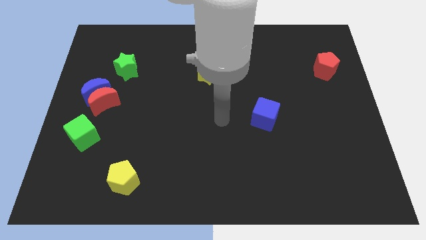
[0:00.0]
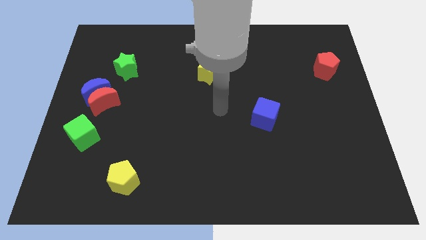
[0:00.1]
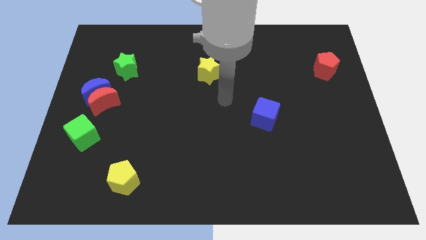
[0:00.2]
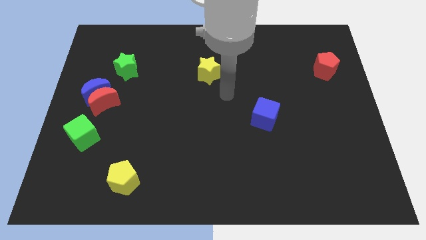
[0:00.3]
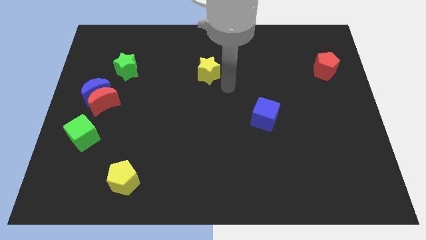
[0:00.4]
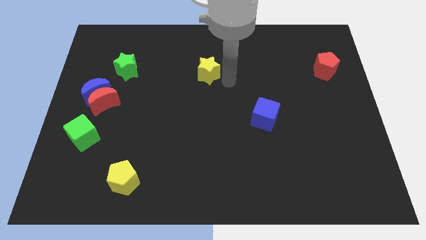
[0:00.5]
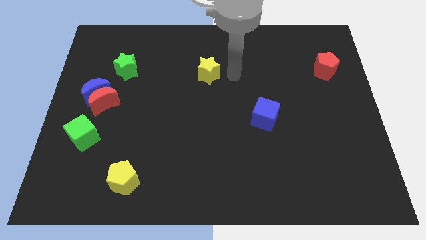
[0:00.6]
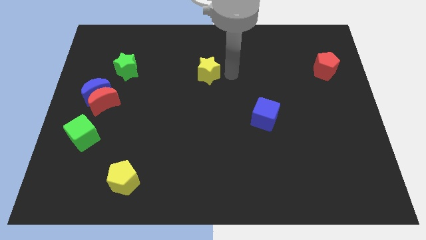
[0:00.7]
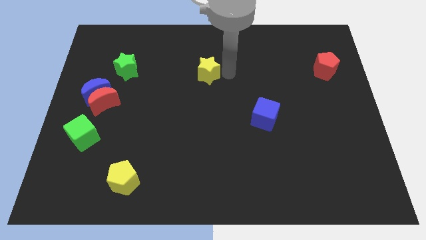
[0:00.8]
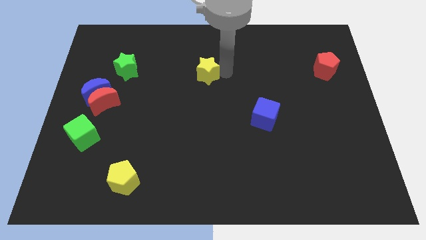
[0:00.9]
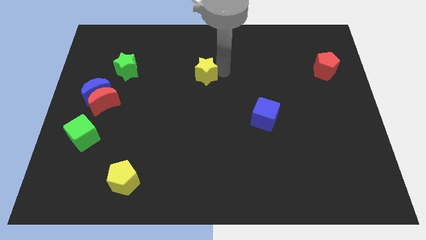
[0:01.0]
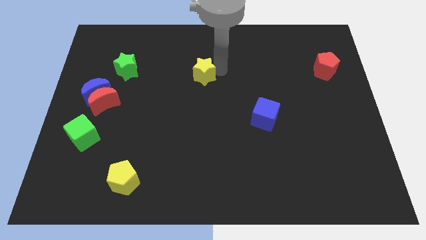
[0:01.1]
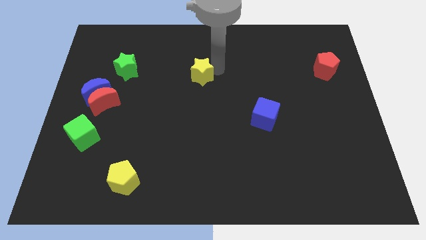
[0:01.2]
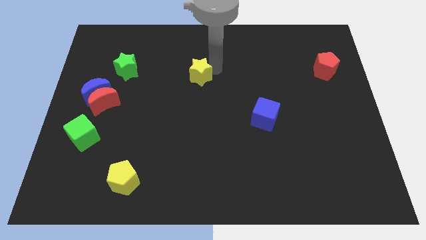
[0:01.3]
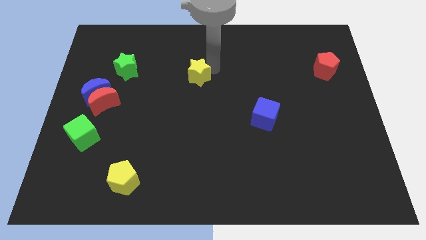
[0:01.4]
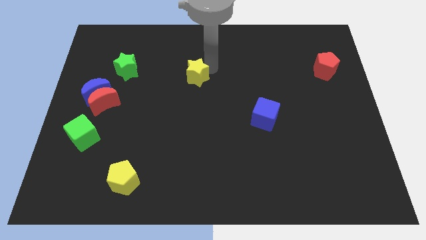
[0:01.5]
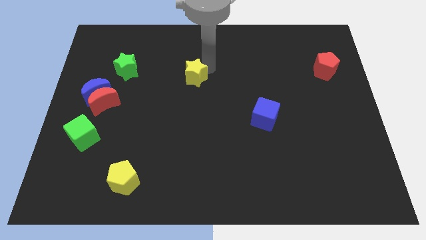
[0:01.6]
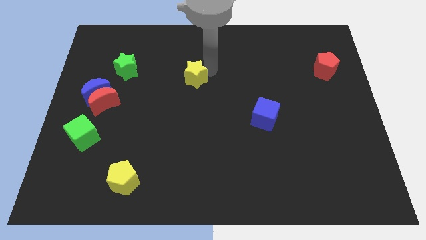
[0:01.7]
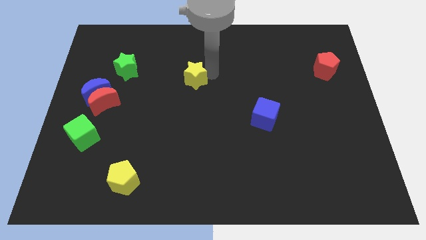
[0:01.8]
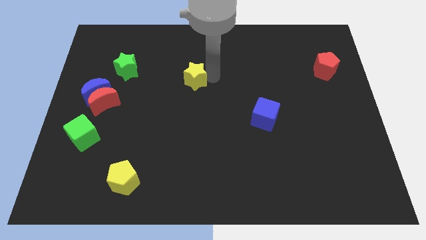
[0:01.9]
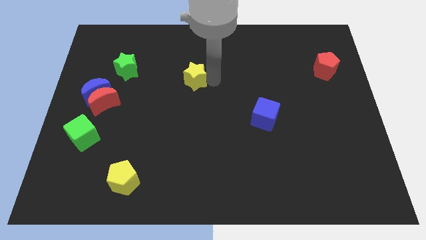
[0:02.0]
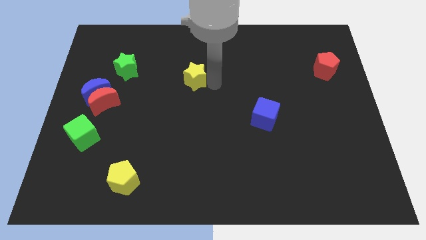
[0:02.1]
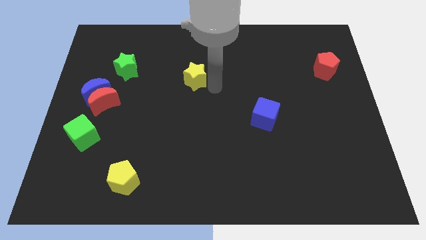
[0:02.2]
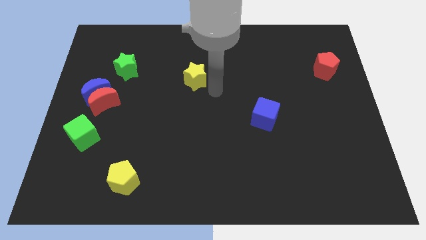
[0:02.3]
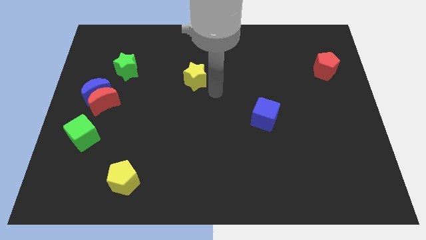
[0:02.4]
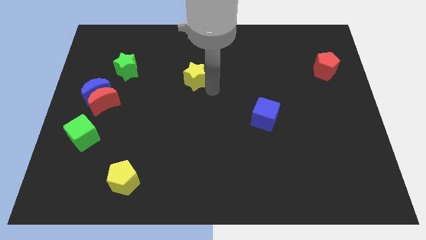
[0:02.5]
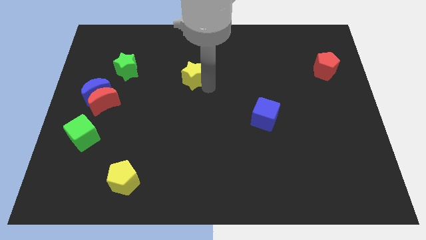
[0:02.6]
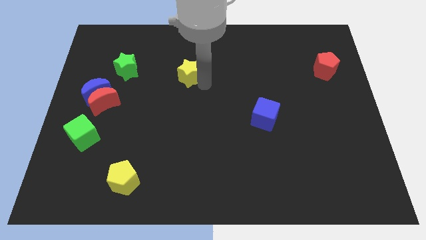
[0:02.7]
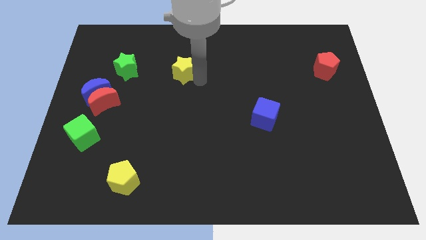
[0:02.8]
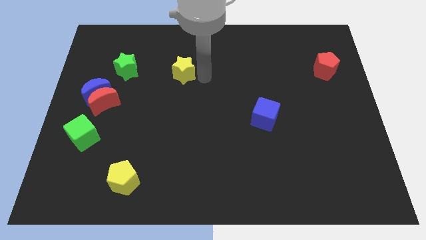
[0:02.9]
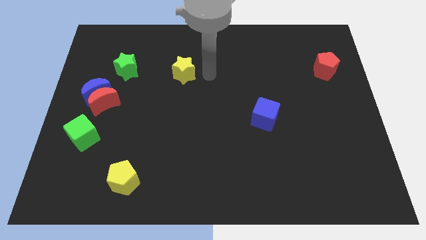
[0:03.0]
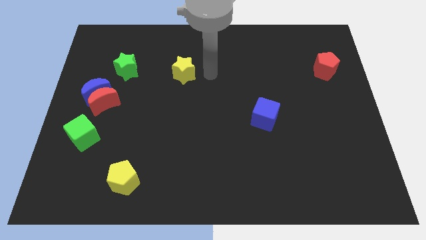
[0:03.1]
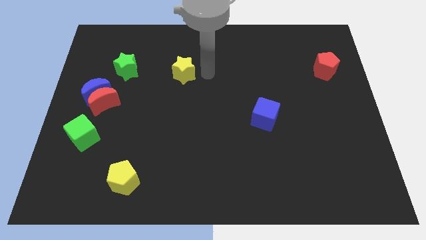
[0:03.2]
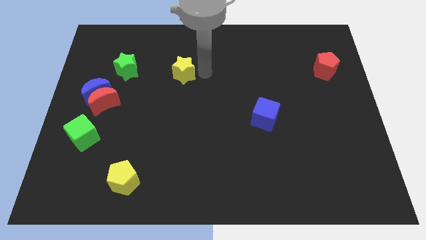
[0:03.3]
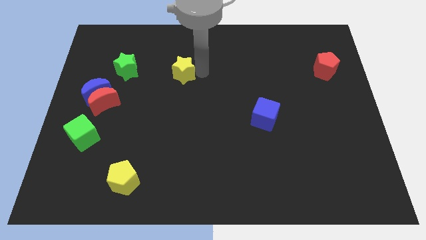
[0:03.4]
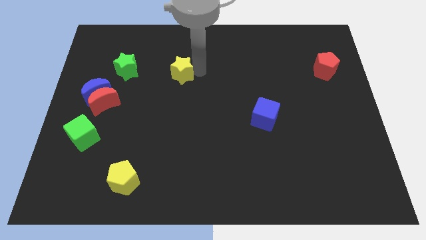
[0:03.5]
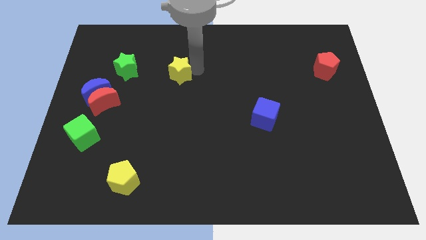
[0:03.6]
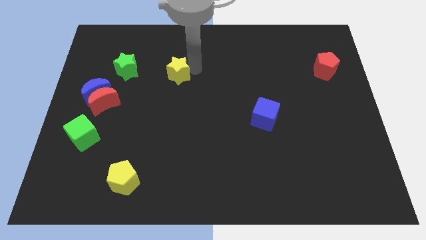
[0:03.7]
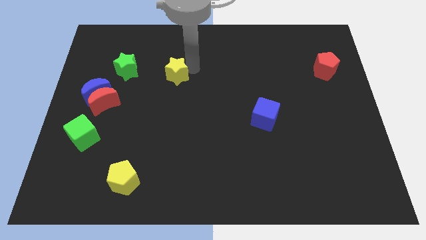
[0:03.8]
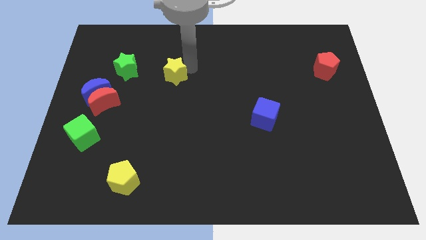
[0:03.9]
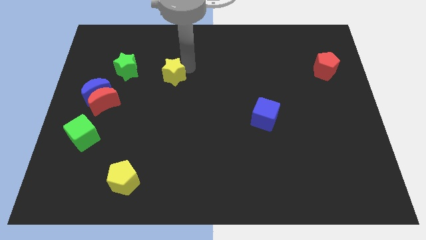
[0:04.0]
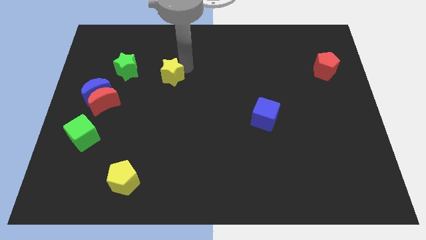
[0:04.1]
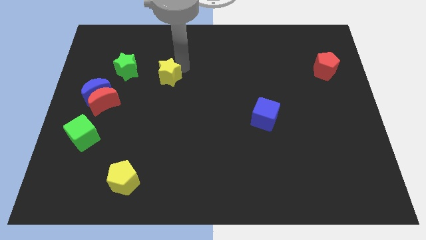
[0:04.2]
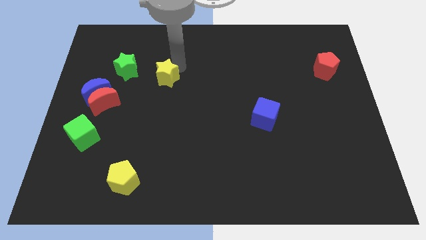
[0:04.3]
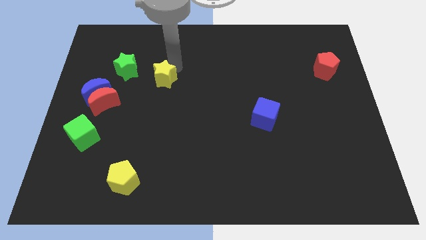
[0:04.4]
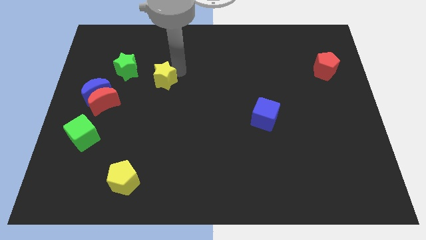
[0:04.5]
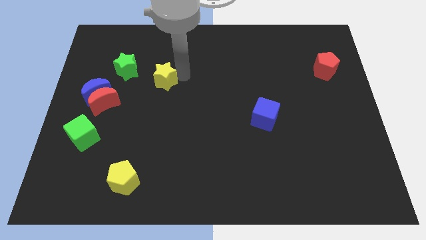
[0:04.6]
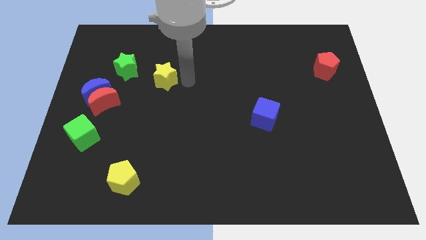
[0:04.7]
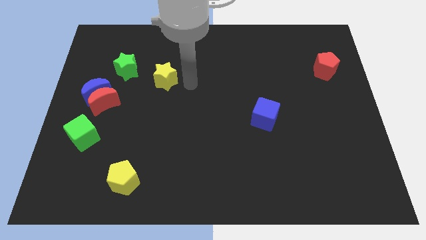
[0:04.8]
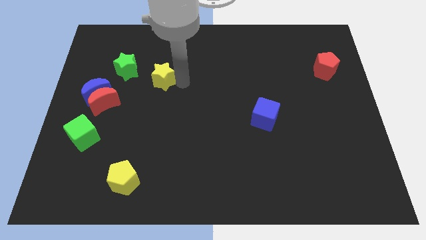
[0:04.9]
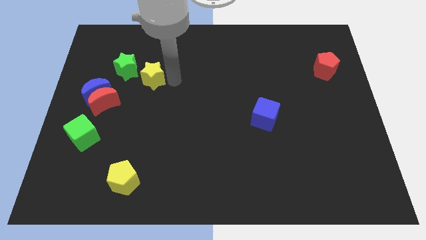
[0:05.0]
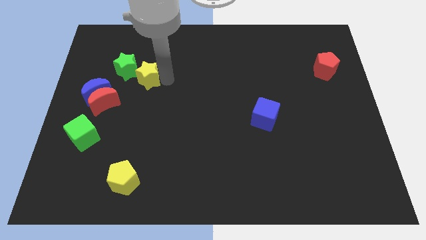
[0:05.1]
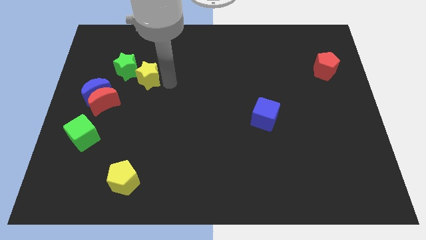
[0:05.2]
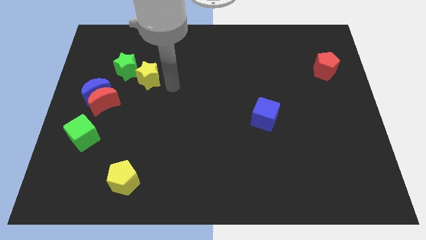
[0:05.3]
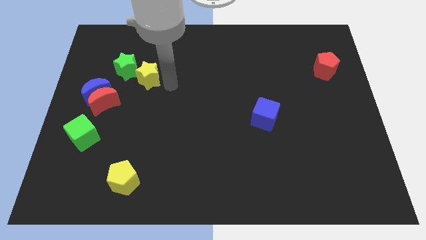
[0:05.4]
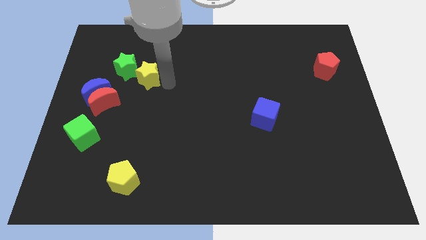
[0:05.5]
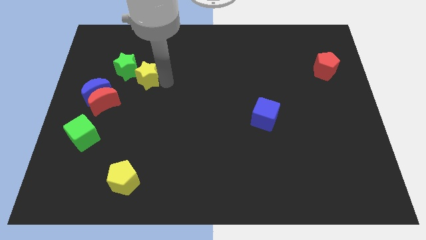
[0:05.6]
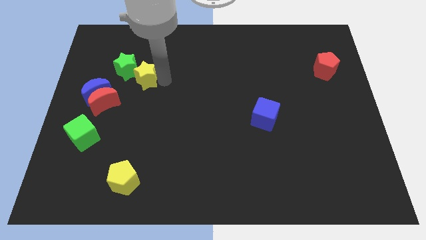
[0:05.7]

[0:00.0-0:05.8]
slide the yellow star next to the green star

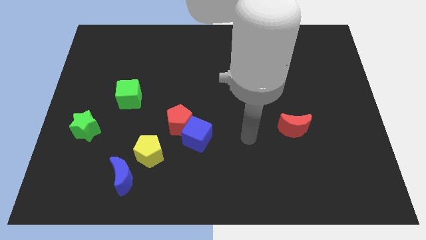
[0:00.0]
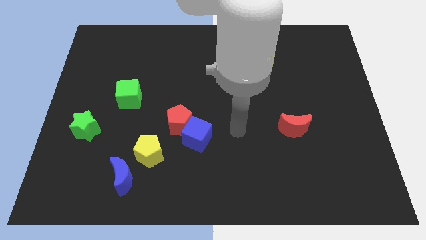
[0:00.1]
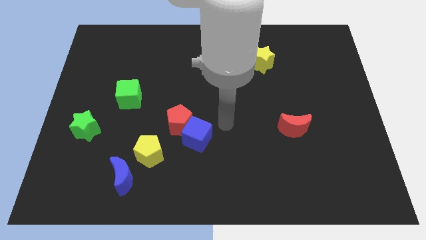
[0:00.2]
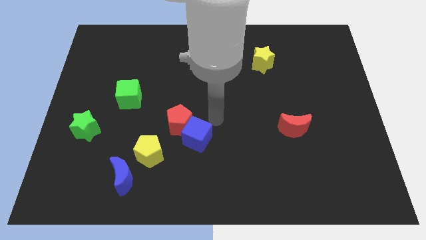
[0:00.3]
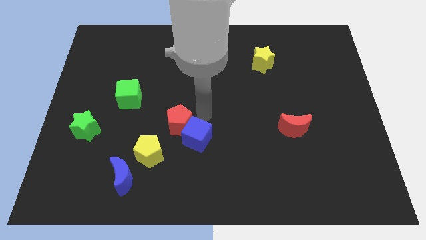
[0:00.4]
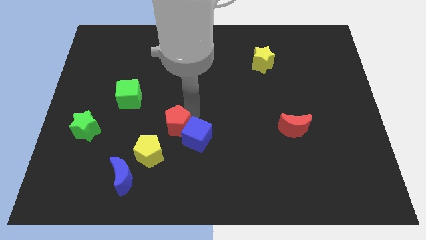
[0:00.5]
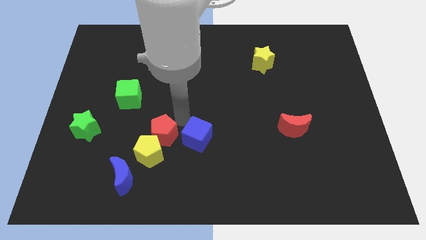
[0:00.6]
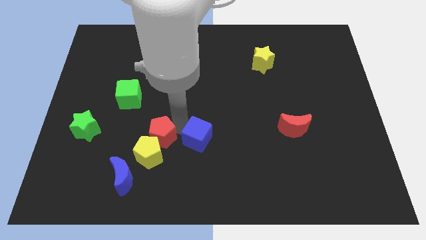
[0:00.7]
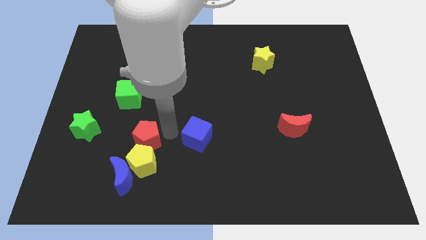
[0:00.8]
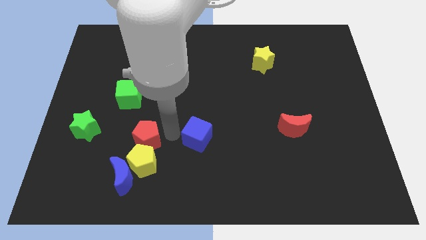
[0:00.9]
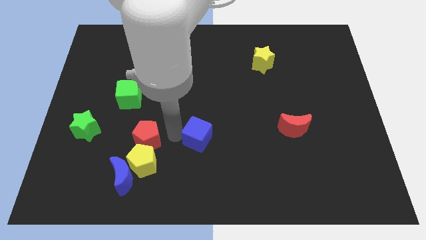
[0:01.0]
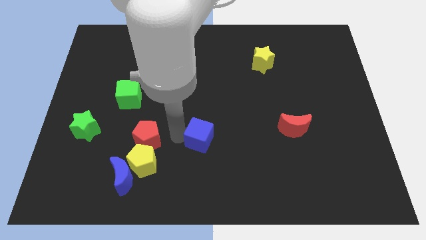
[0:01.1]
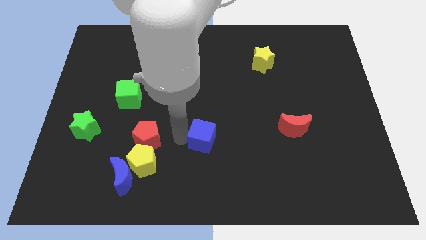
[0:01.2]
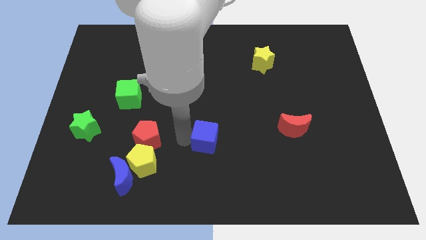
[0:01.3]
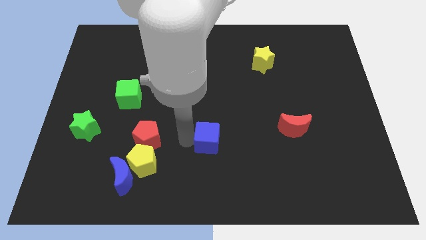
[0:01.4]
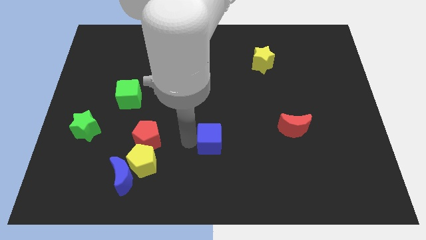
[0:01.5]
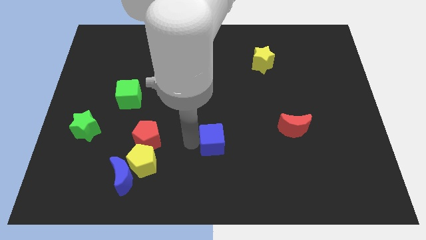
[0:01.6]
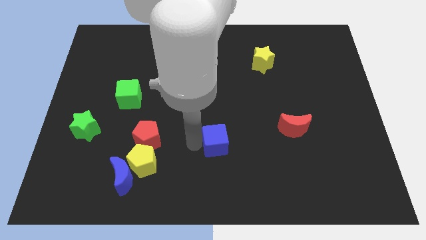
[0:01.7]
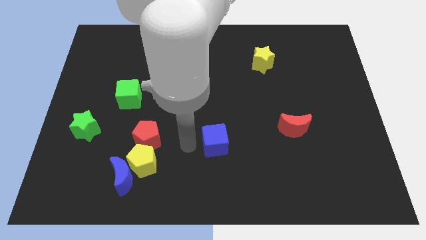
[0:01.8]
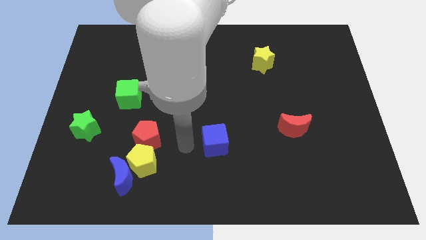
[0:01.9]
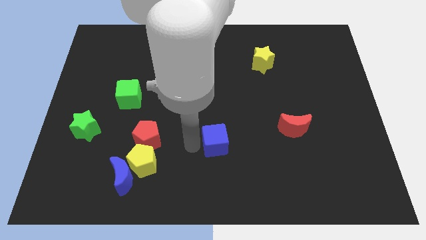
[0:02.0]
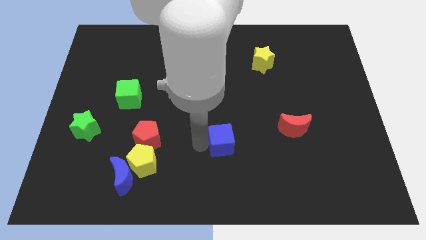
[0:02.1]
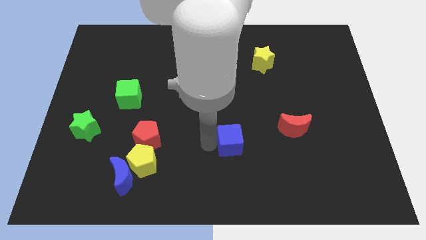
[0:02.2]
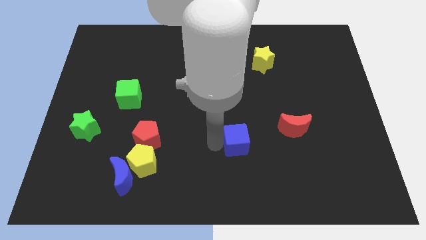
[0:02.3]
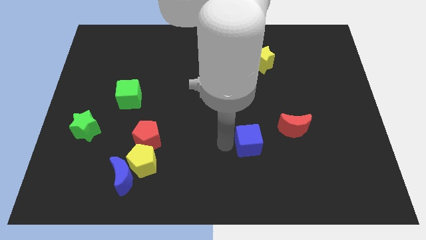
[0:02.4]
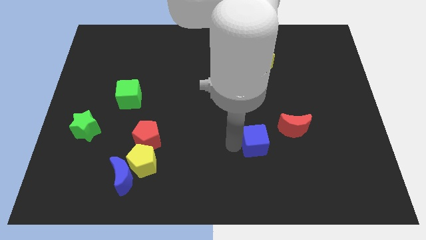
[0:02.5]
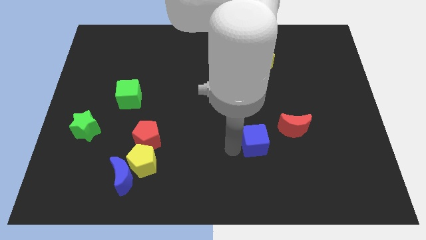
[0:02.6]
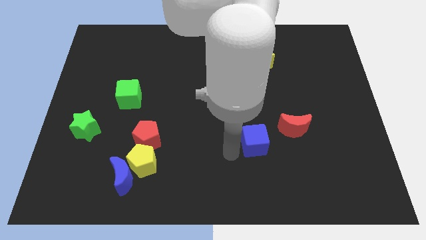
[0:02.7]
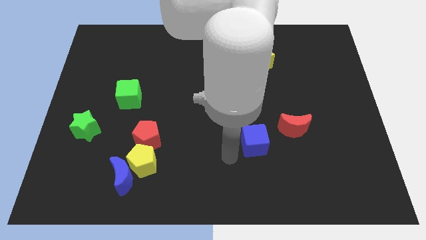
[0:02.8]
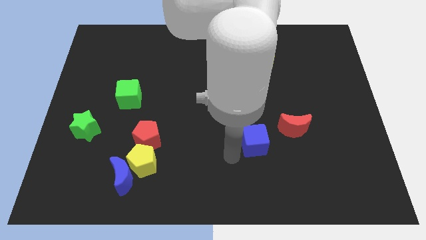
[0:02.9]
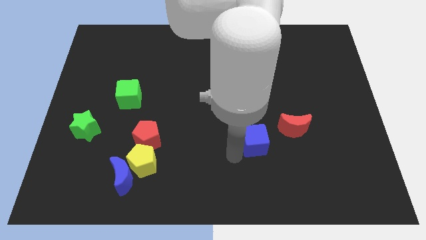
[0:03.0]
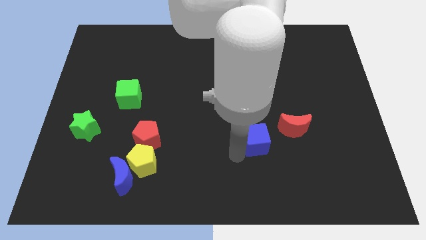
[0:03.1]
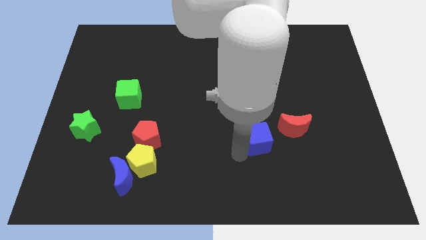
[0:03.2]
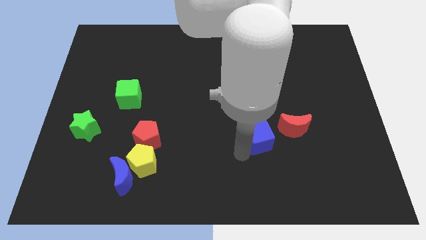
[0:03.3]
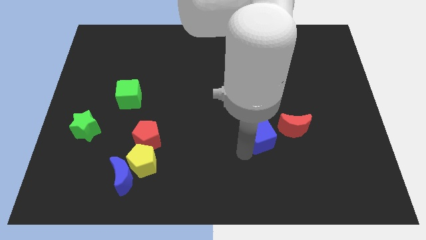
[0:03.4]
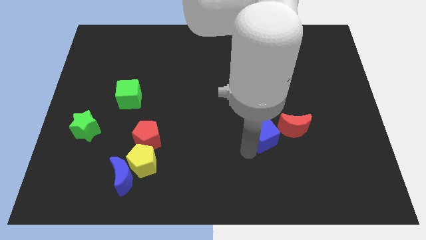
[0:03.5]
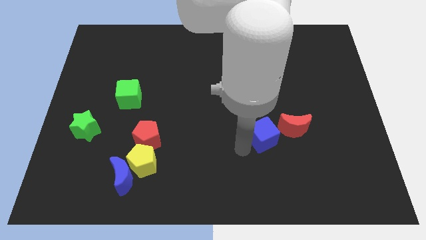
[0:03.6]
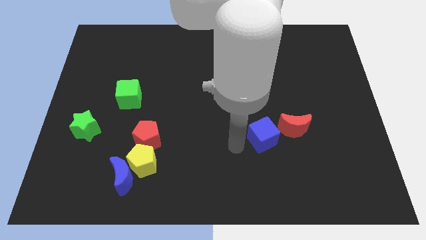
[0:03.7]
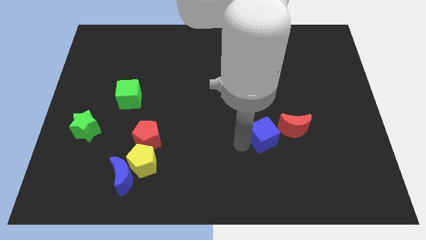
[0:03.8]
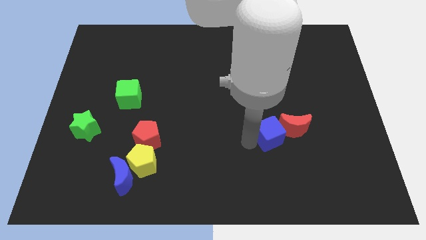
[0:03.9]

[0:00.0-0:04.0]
move the blue cube next to the red moon
